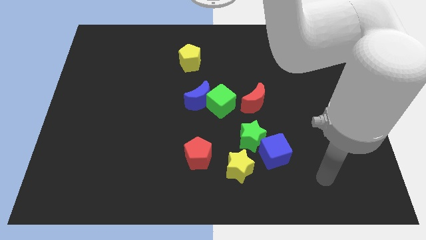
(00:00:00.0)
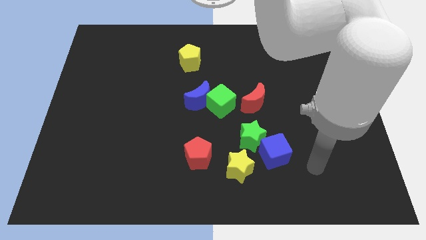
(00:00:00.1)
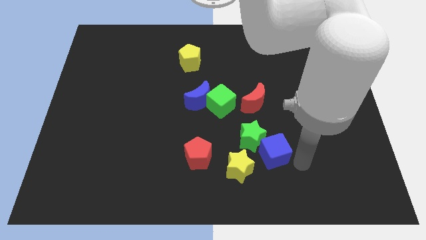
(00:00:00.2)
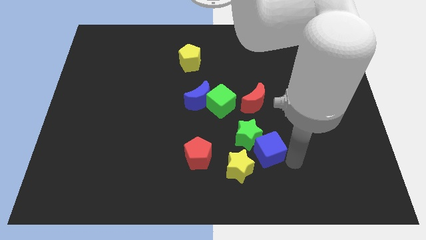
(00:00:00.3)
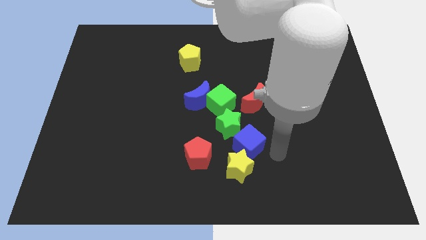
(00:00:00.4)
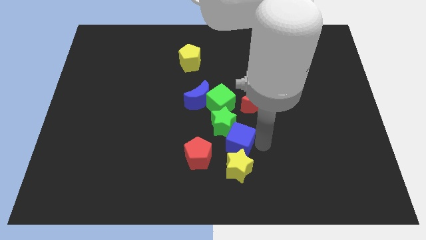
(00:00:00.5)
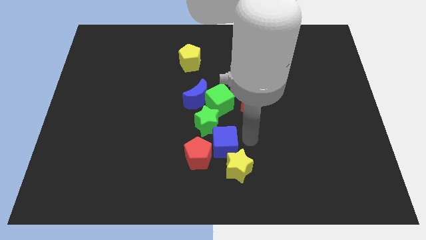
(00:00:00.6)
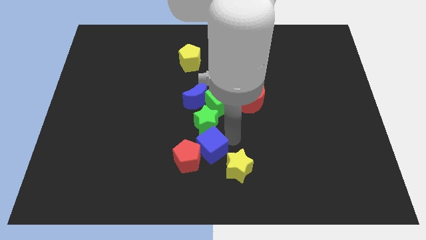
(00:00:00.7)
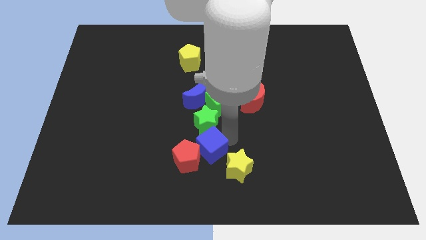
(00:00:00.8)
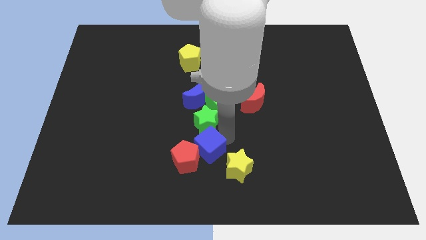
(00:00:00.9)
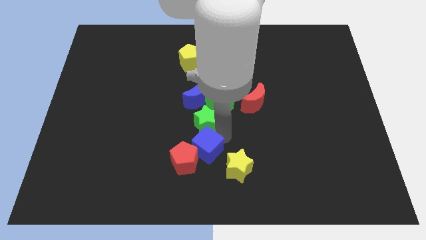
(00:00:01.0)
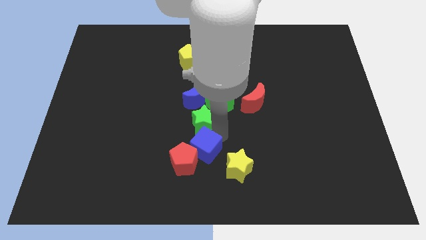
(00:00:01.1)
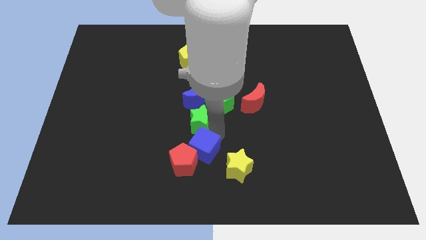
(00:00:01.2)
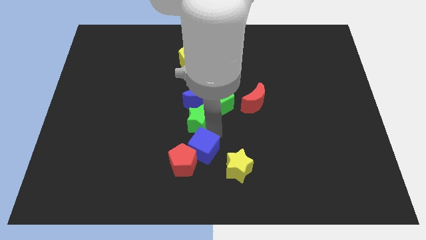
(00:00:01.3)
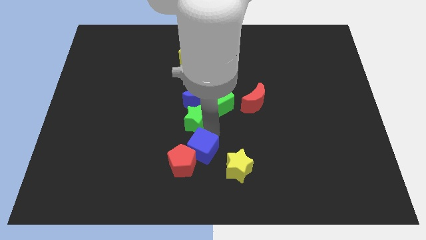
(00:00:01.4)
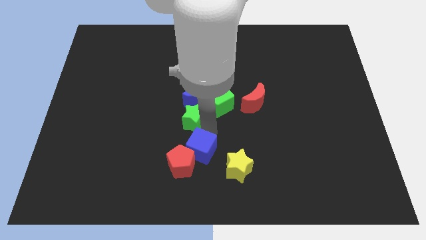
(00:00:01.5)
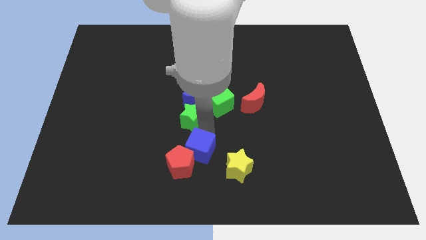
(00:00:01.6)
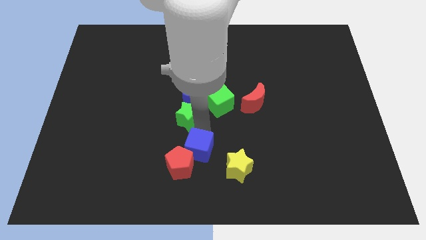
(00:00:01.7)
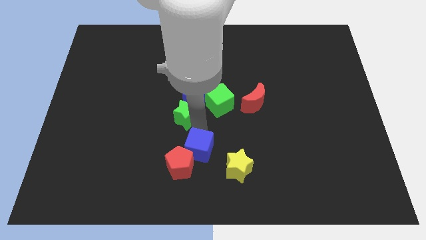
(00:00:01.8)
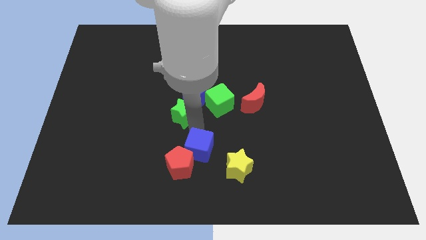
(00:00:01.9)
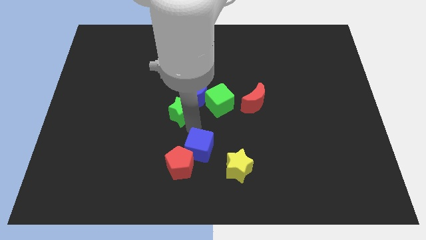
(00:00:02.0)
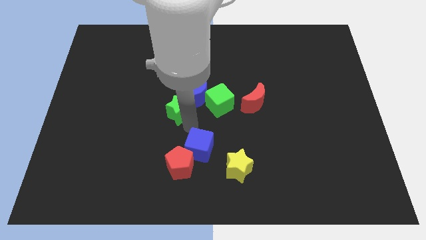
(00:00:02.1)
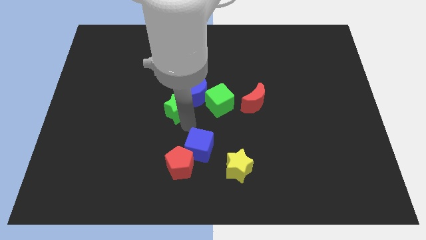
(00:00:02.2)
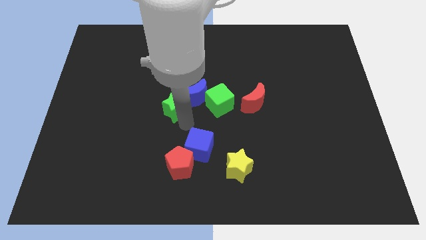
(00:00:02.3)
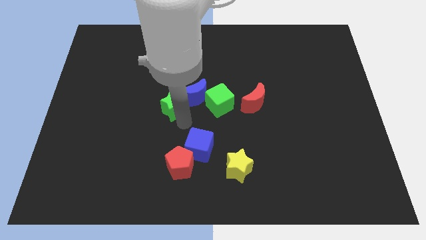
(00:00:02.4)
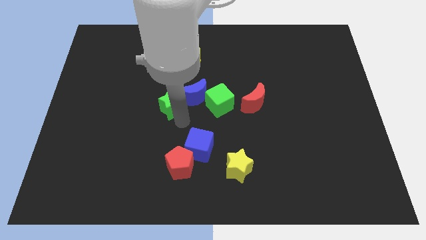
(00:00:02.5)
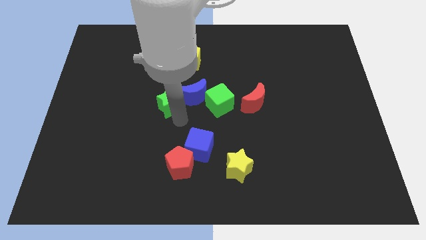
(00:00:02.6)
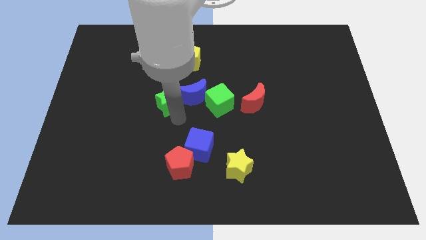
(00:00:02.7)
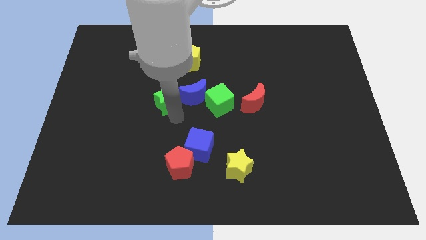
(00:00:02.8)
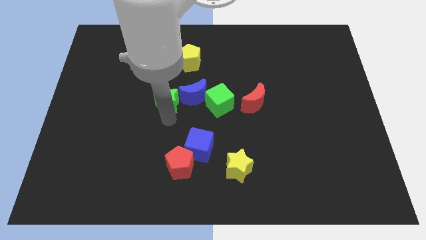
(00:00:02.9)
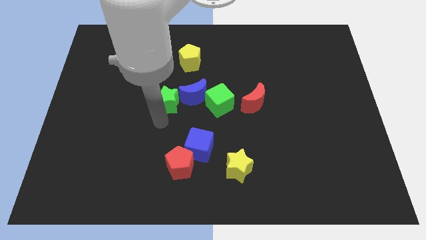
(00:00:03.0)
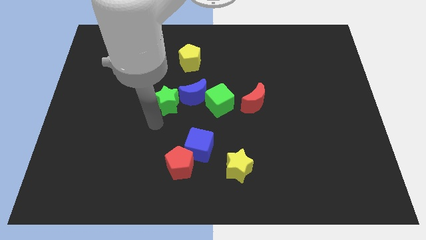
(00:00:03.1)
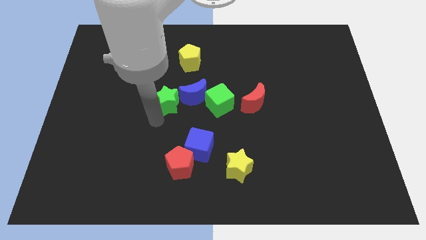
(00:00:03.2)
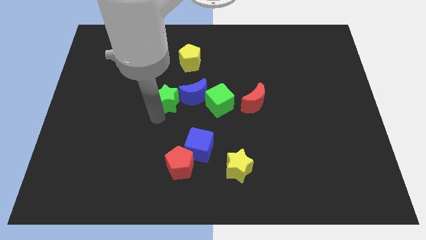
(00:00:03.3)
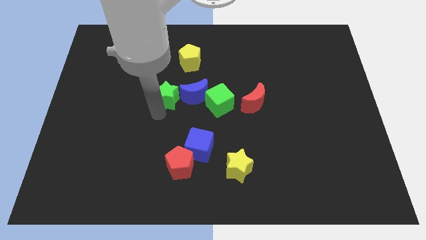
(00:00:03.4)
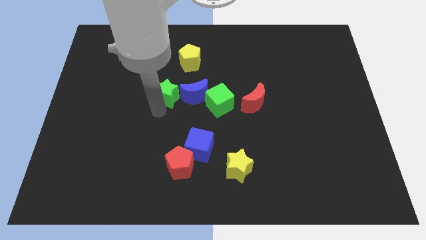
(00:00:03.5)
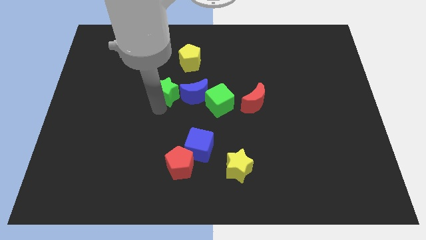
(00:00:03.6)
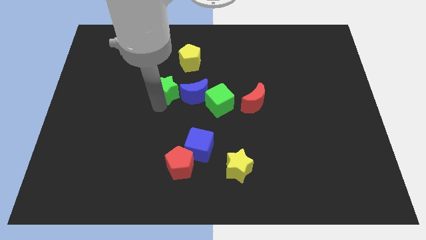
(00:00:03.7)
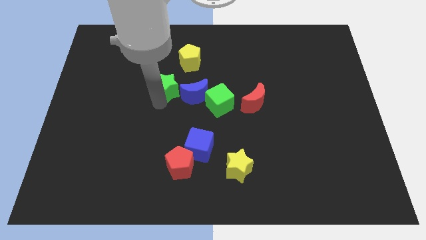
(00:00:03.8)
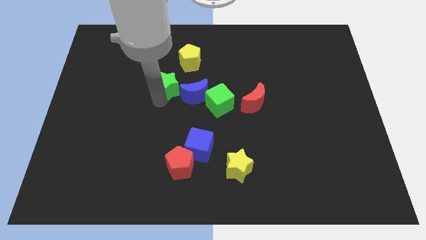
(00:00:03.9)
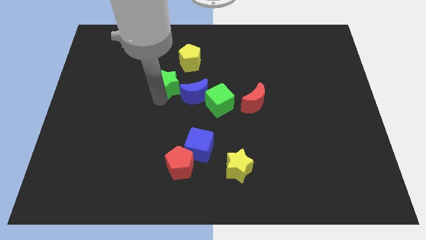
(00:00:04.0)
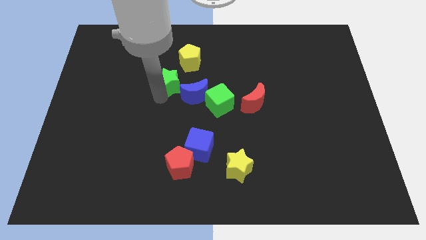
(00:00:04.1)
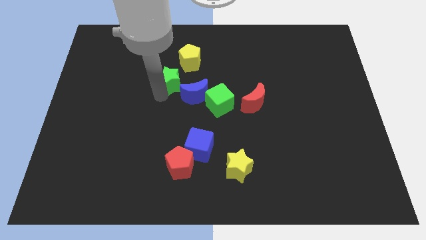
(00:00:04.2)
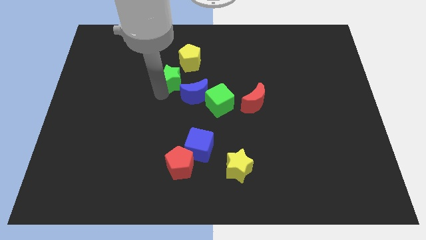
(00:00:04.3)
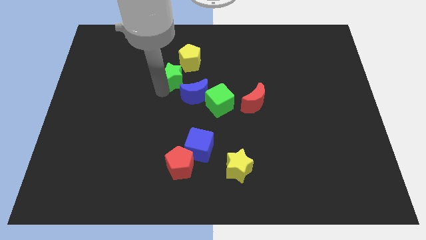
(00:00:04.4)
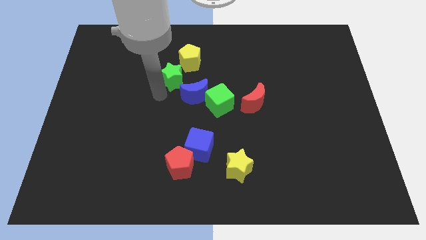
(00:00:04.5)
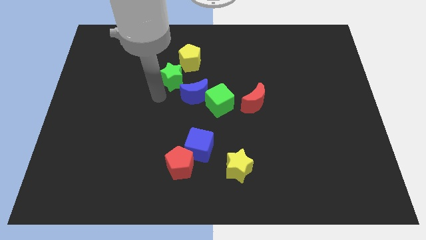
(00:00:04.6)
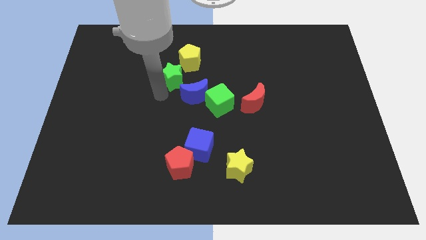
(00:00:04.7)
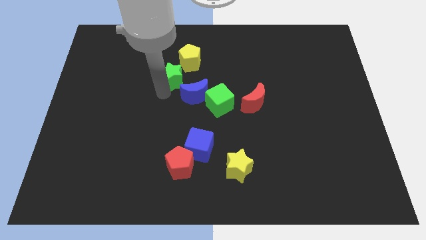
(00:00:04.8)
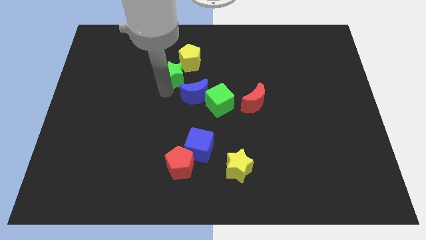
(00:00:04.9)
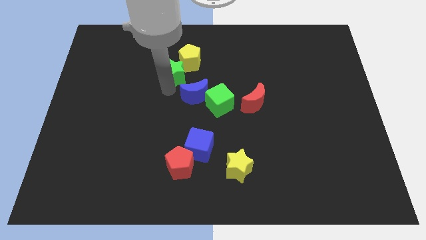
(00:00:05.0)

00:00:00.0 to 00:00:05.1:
slide the green star close to the yellow pentagon

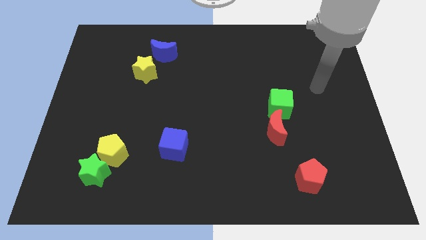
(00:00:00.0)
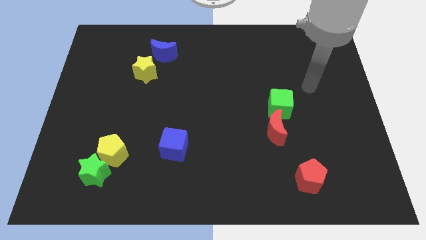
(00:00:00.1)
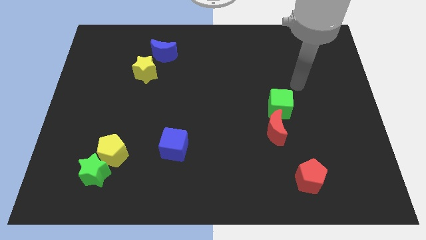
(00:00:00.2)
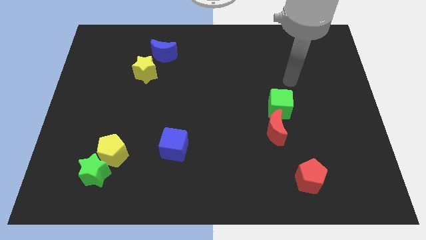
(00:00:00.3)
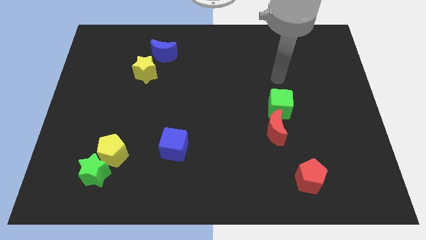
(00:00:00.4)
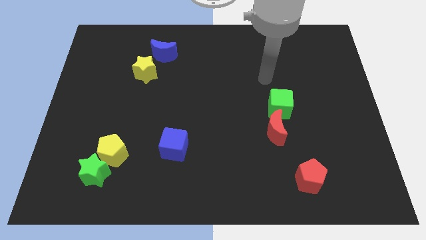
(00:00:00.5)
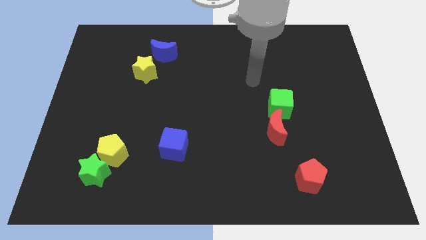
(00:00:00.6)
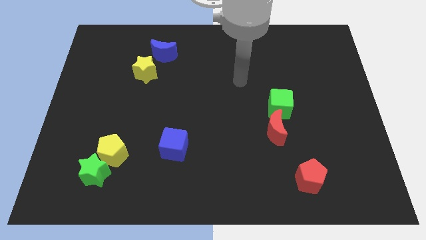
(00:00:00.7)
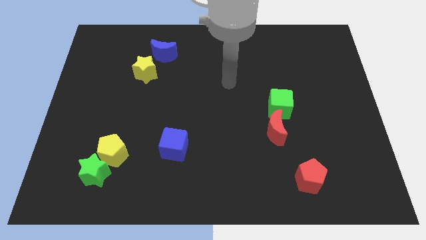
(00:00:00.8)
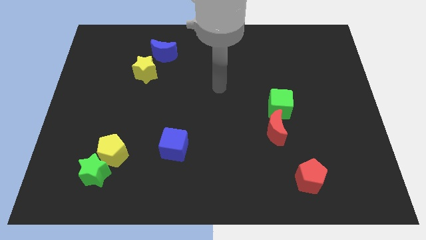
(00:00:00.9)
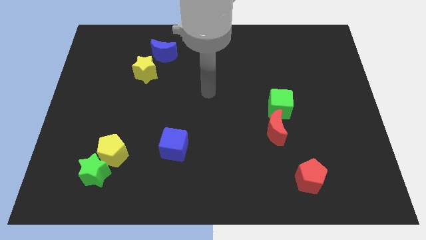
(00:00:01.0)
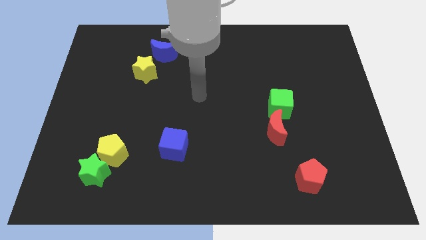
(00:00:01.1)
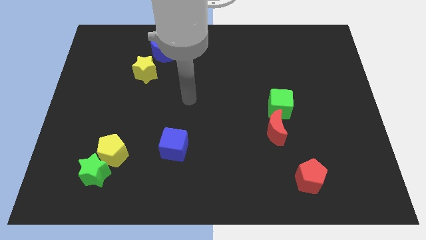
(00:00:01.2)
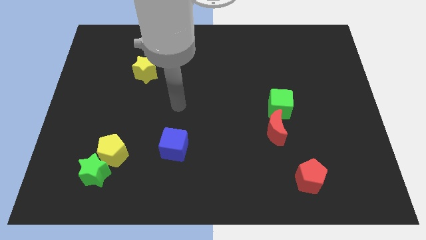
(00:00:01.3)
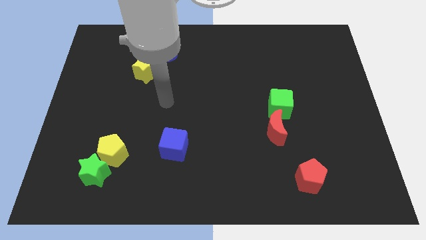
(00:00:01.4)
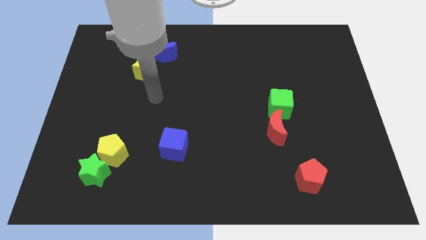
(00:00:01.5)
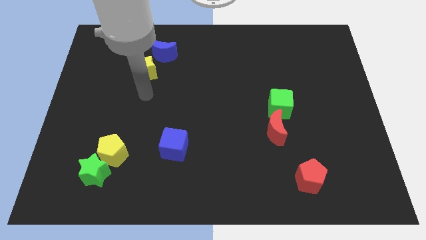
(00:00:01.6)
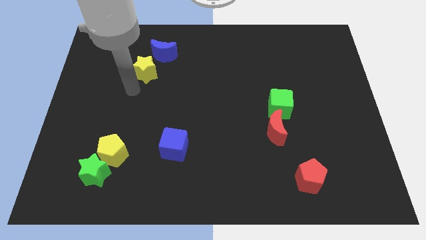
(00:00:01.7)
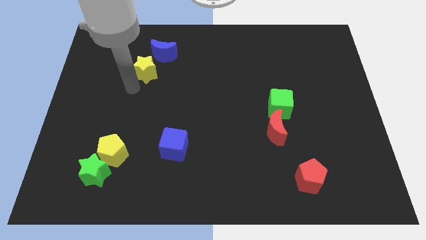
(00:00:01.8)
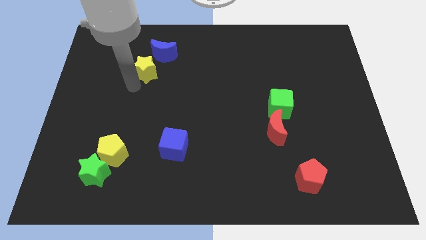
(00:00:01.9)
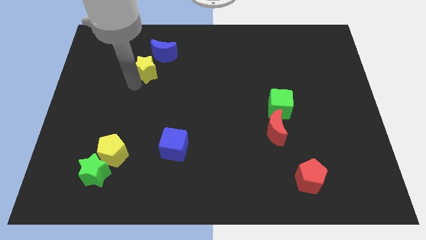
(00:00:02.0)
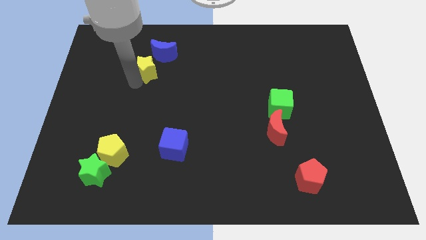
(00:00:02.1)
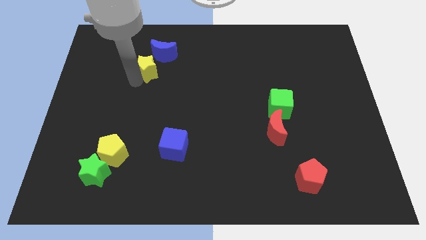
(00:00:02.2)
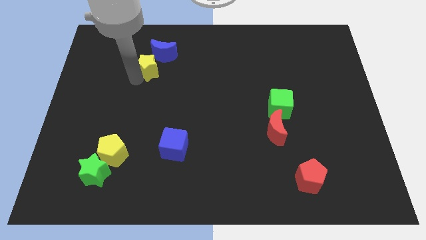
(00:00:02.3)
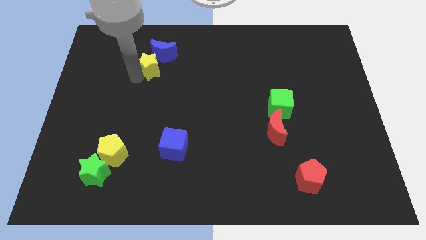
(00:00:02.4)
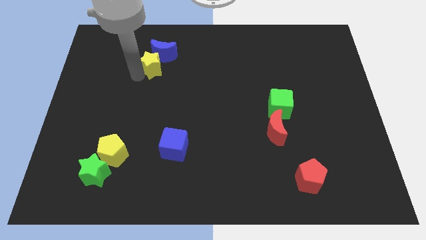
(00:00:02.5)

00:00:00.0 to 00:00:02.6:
move the yellow star to the blue moon
